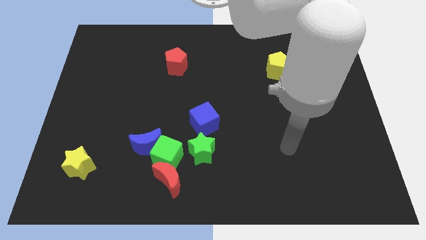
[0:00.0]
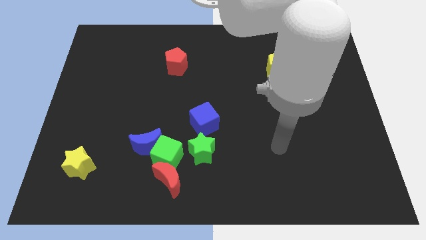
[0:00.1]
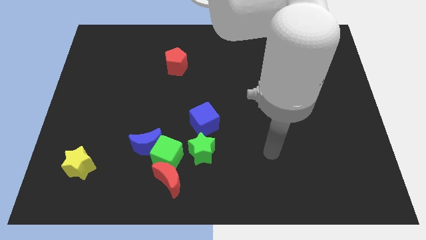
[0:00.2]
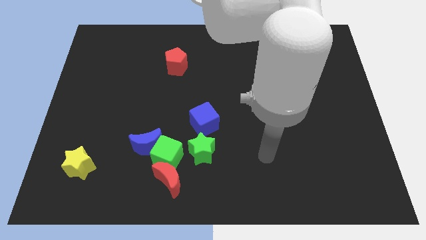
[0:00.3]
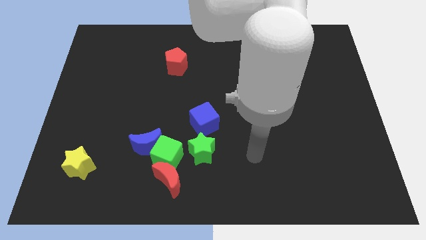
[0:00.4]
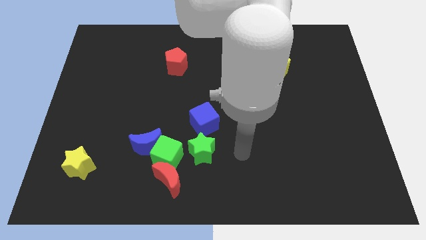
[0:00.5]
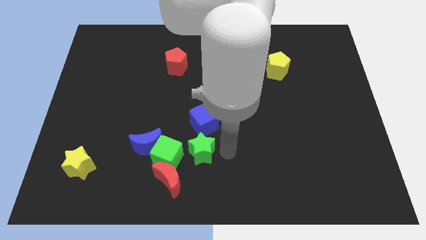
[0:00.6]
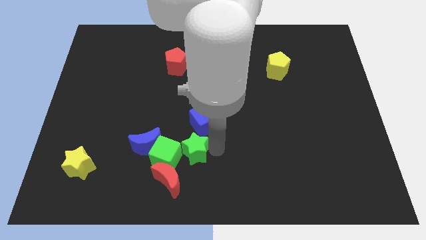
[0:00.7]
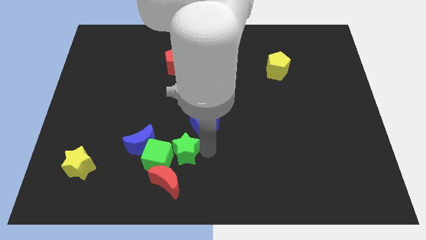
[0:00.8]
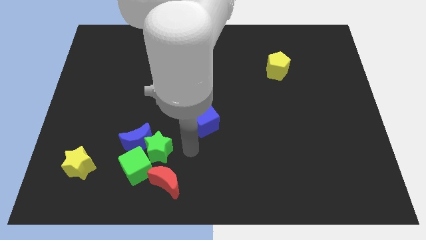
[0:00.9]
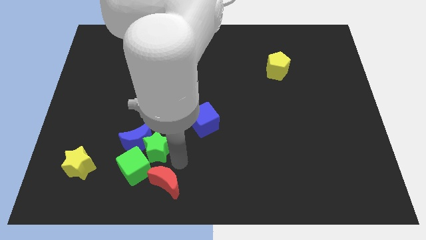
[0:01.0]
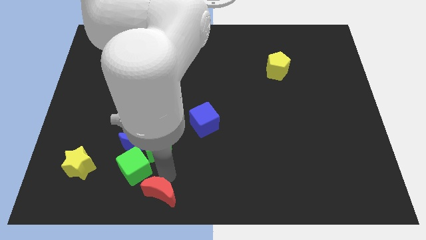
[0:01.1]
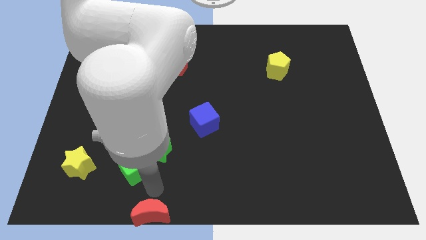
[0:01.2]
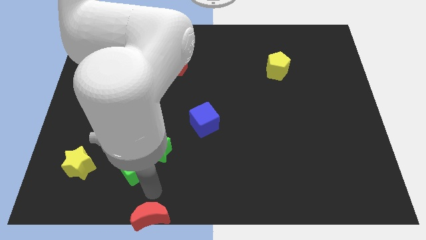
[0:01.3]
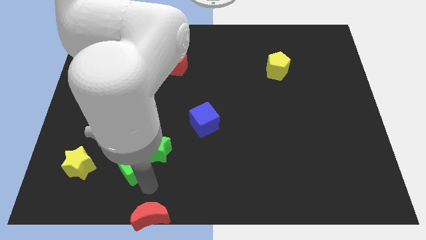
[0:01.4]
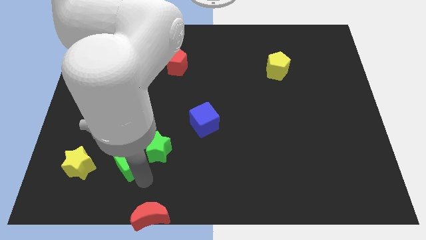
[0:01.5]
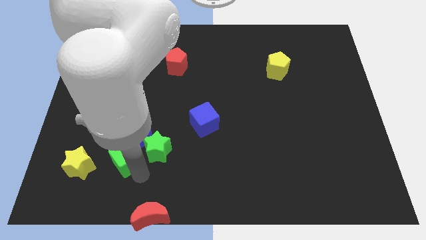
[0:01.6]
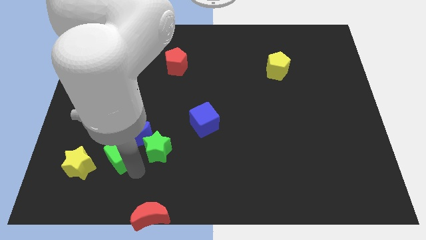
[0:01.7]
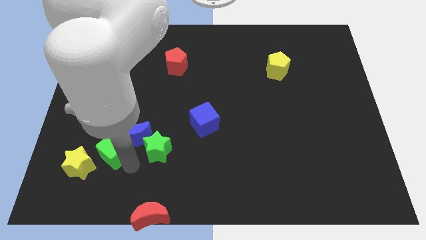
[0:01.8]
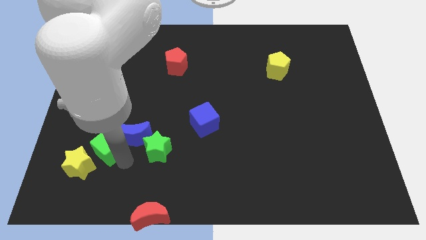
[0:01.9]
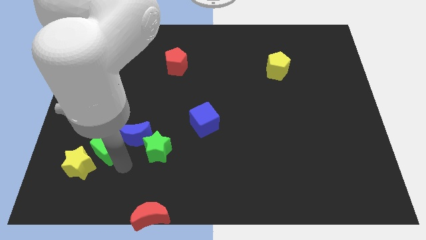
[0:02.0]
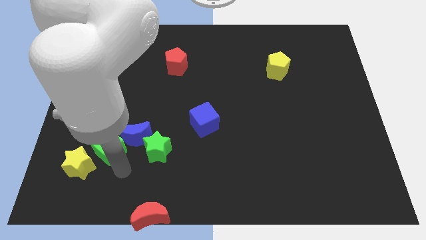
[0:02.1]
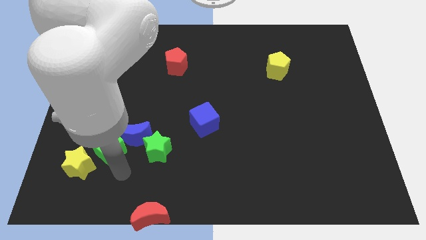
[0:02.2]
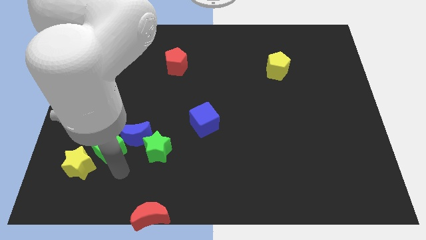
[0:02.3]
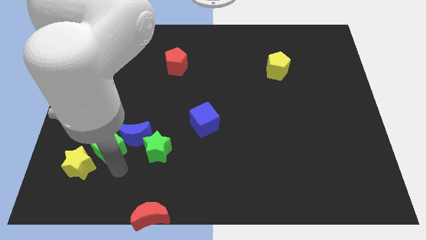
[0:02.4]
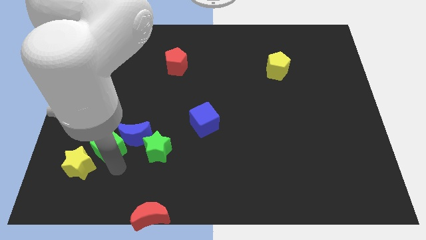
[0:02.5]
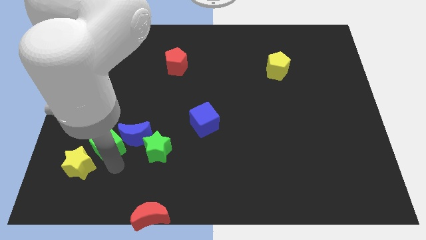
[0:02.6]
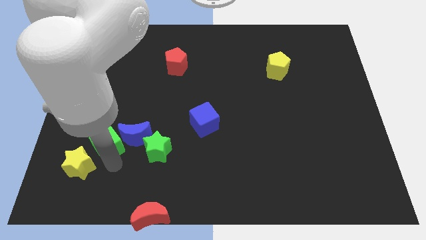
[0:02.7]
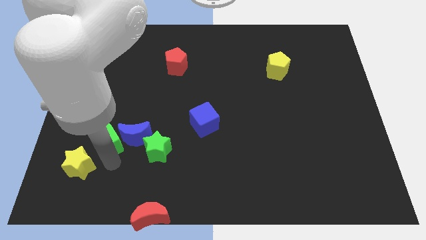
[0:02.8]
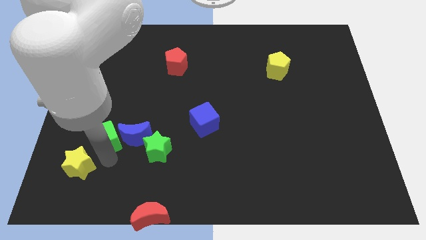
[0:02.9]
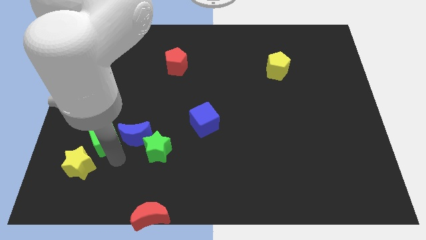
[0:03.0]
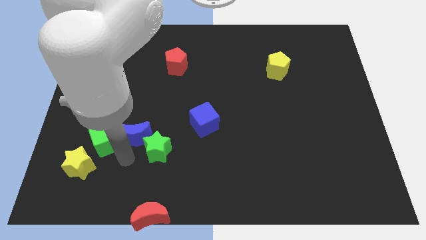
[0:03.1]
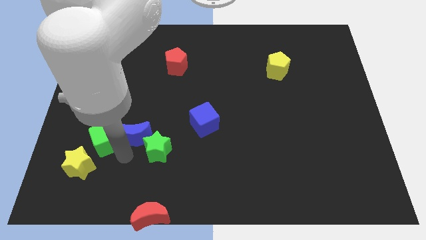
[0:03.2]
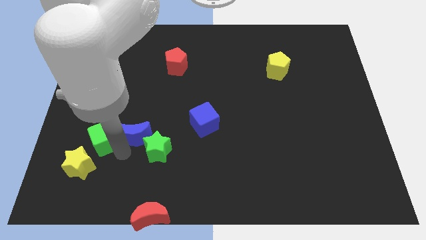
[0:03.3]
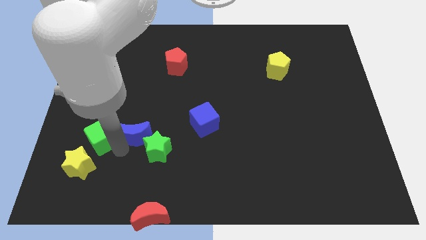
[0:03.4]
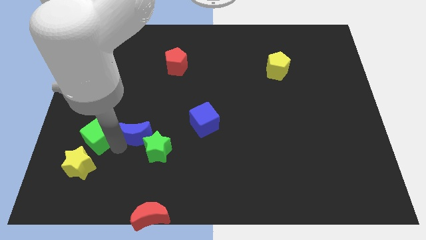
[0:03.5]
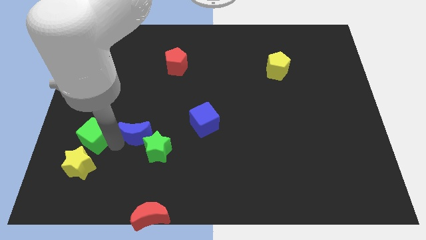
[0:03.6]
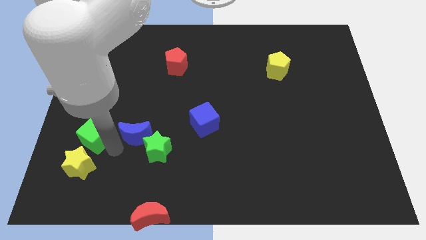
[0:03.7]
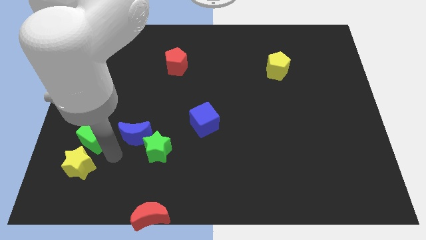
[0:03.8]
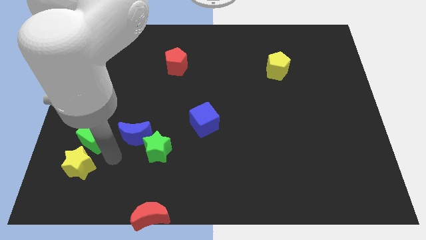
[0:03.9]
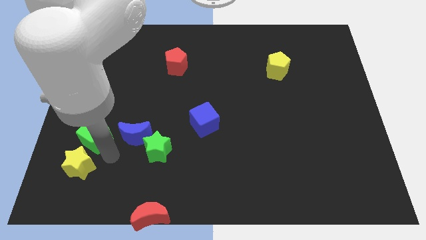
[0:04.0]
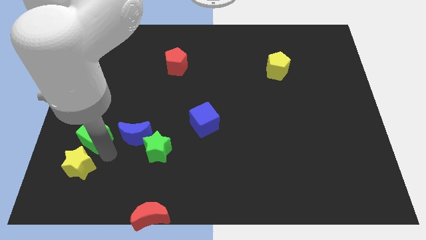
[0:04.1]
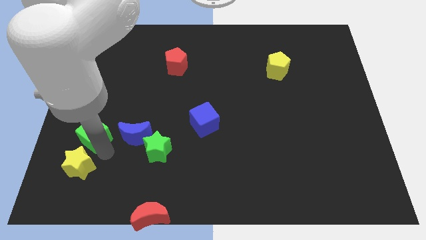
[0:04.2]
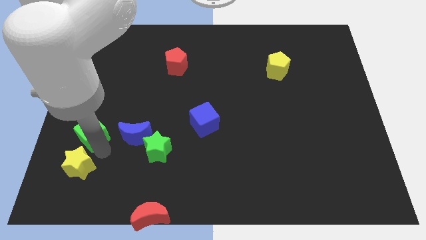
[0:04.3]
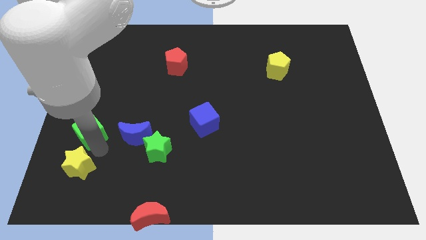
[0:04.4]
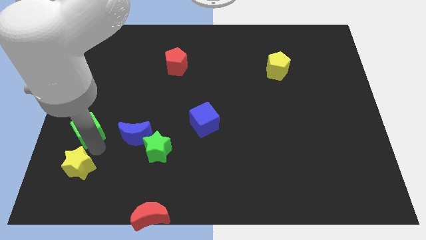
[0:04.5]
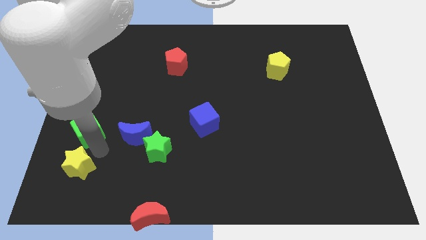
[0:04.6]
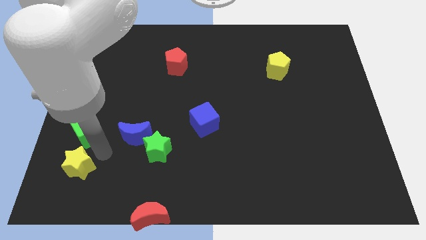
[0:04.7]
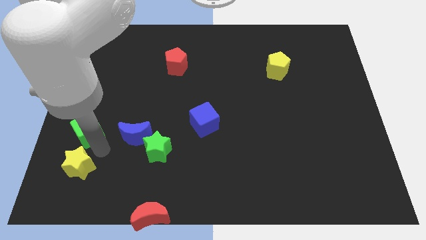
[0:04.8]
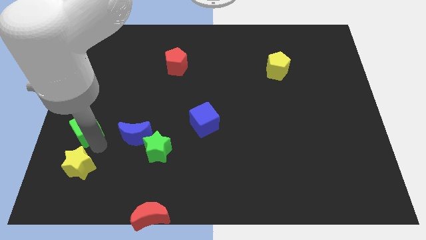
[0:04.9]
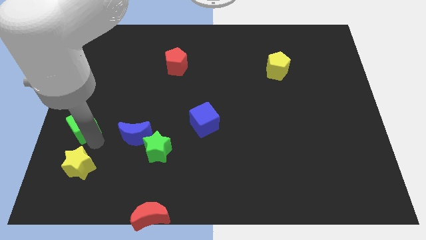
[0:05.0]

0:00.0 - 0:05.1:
move the green cube to the center left

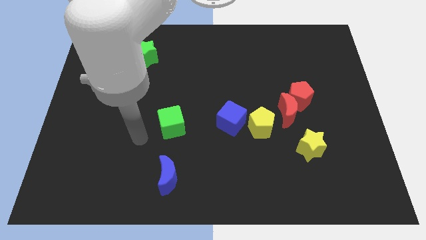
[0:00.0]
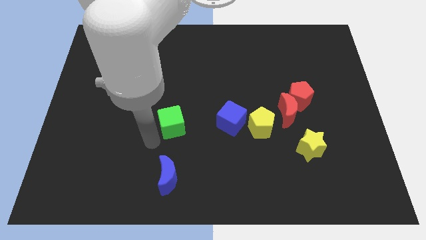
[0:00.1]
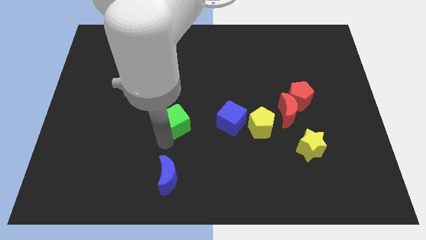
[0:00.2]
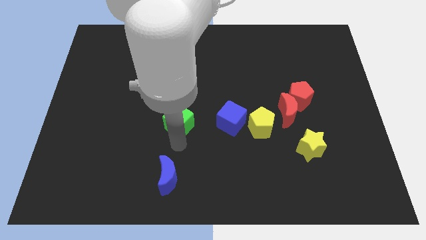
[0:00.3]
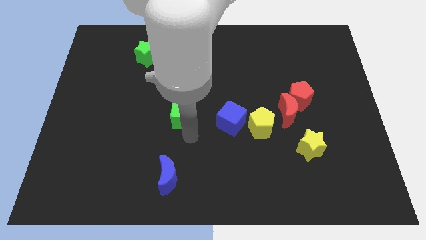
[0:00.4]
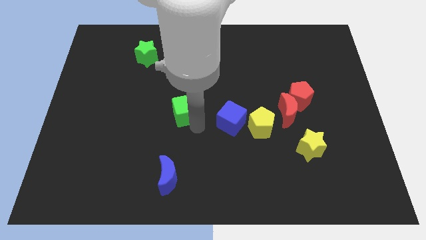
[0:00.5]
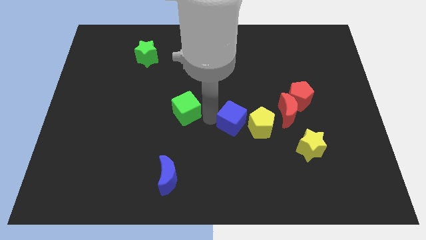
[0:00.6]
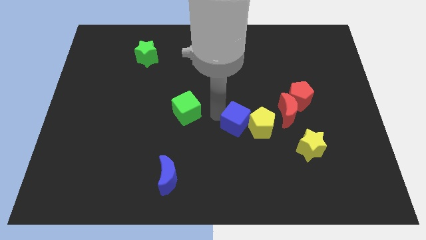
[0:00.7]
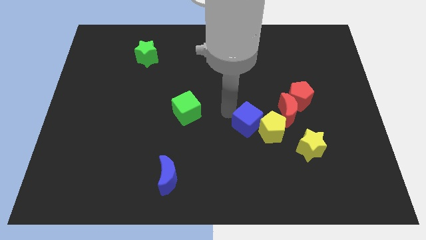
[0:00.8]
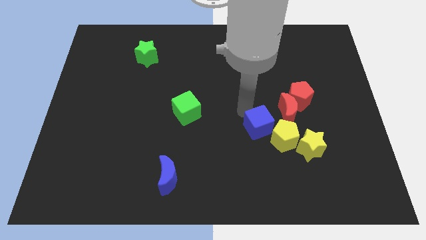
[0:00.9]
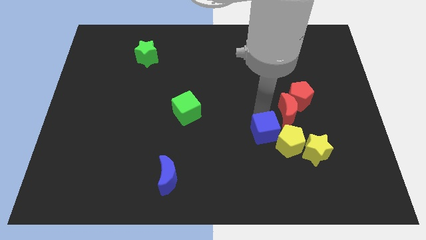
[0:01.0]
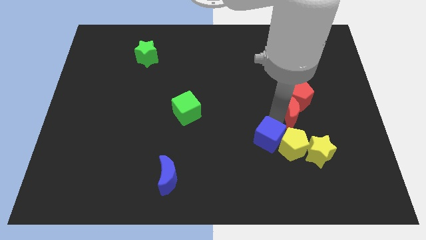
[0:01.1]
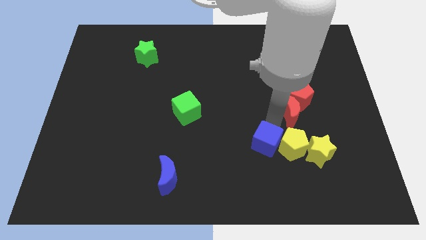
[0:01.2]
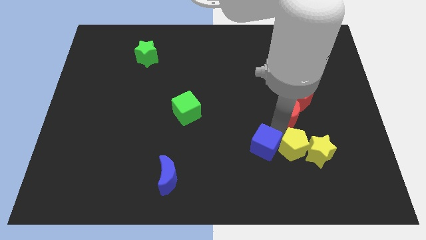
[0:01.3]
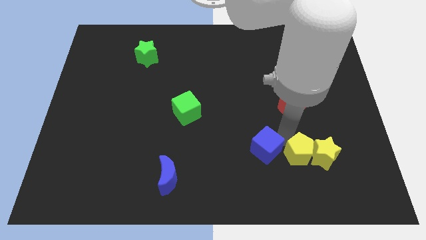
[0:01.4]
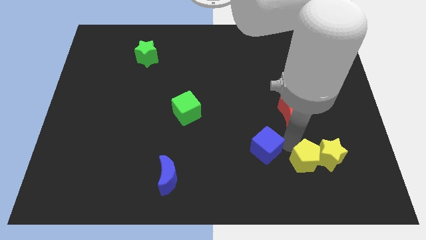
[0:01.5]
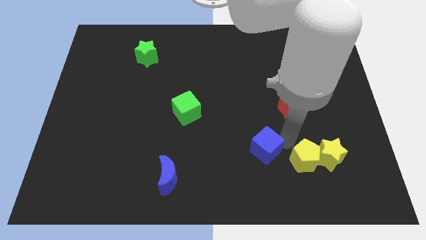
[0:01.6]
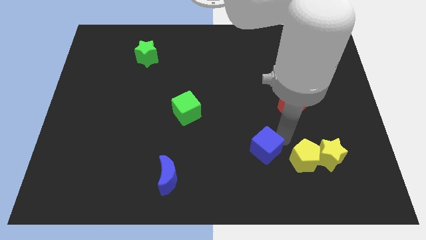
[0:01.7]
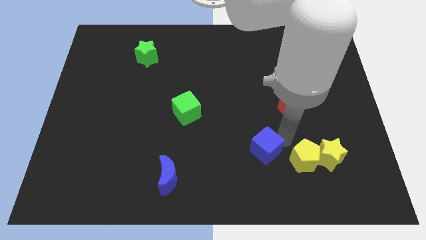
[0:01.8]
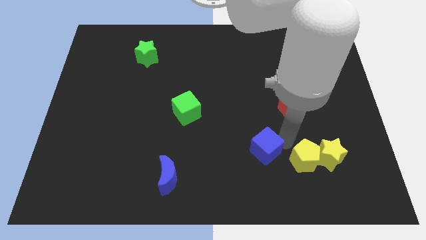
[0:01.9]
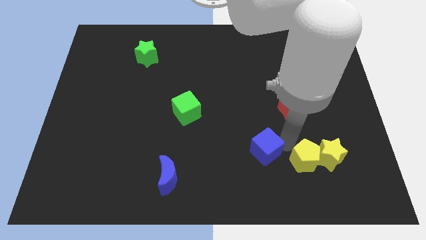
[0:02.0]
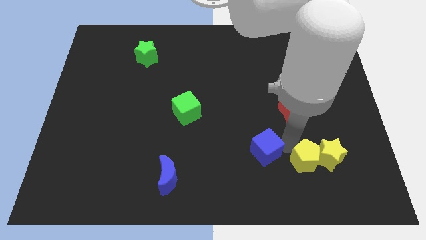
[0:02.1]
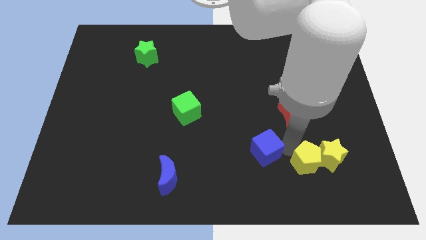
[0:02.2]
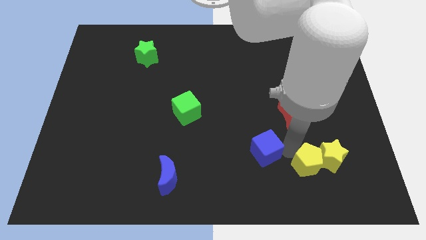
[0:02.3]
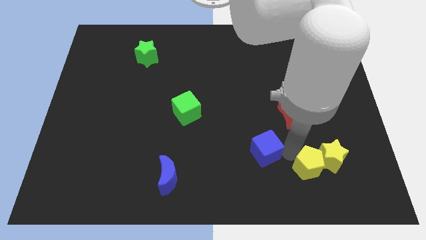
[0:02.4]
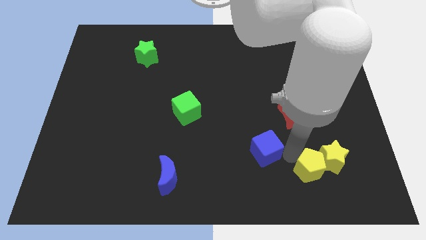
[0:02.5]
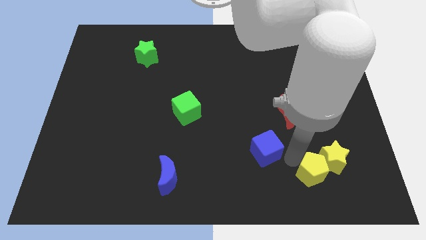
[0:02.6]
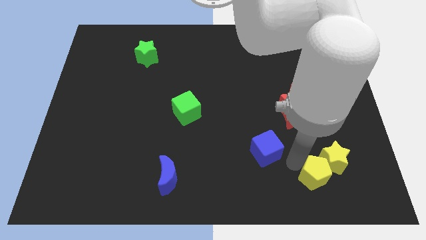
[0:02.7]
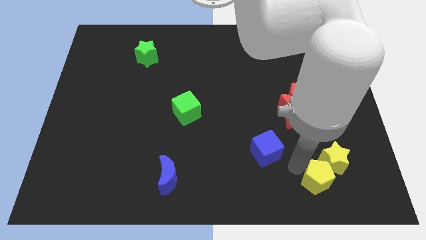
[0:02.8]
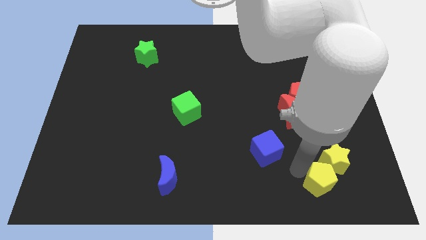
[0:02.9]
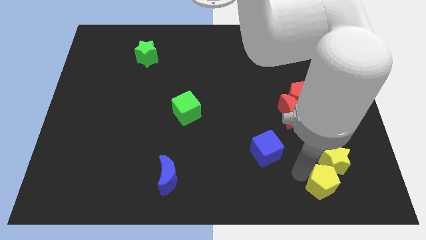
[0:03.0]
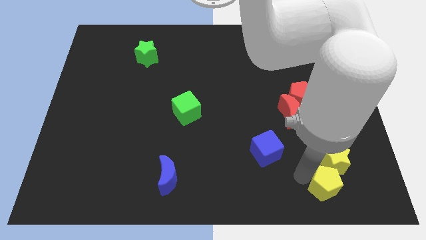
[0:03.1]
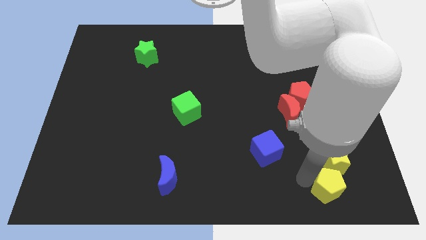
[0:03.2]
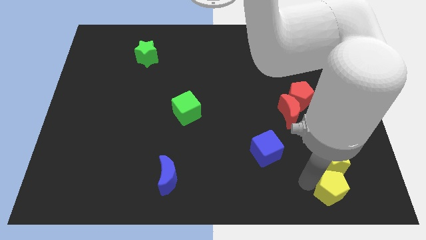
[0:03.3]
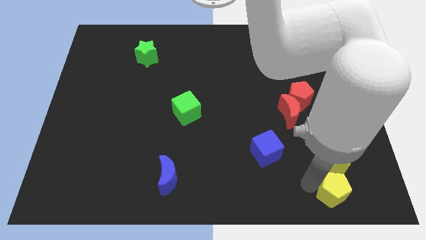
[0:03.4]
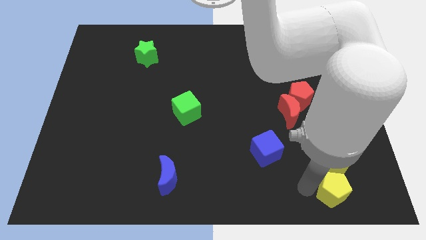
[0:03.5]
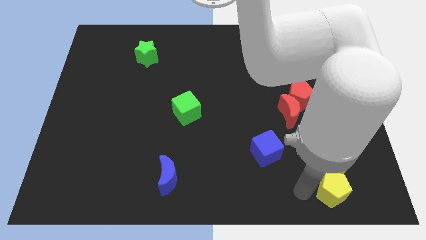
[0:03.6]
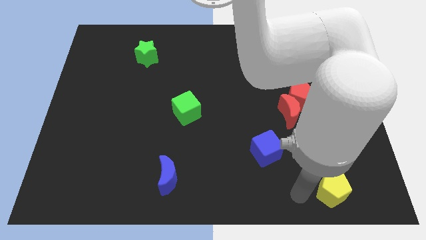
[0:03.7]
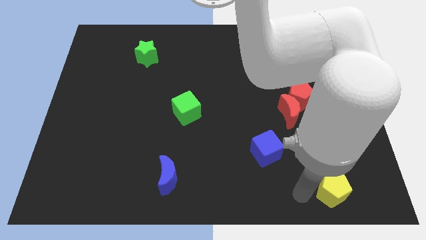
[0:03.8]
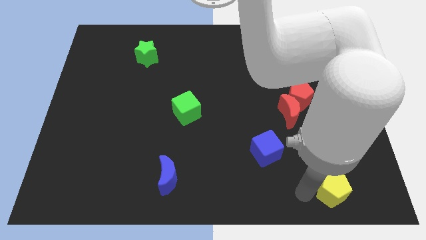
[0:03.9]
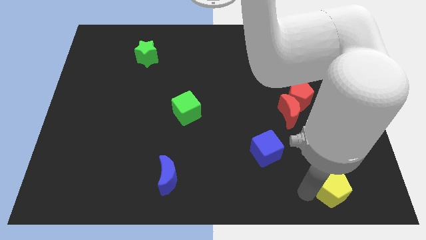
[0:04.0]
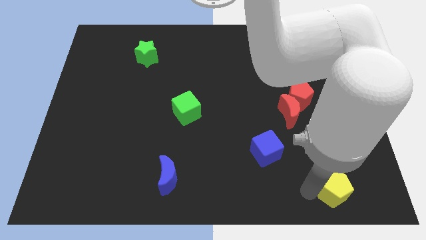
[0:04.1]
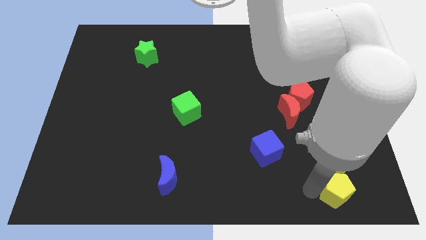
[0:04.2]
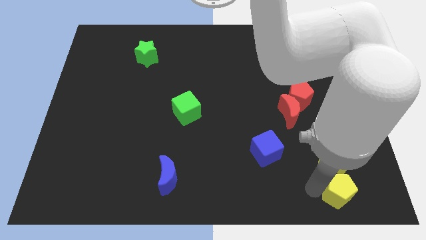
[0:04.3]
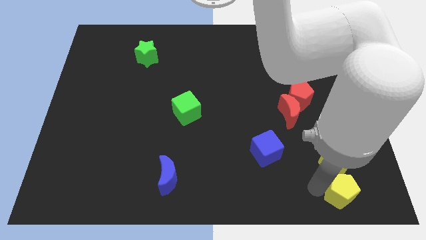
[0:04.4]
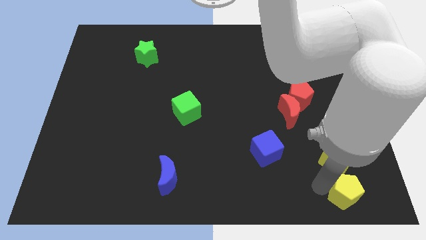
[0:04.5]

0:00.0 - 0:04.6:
put the yellow pentagon to the bottom right of the board
